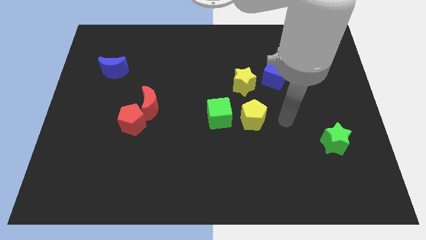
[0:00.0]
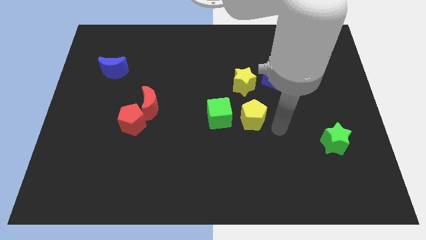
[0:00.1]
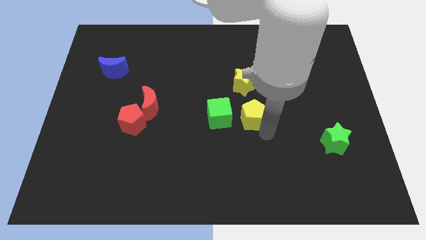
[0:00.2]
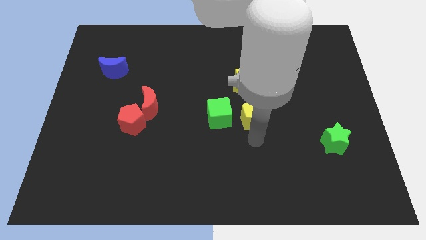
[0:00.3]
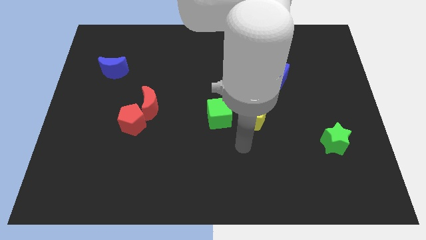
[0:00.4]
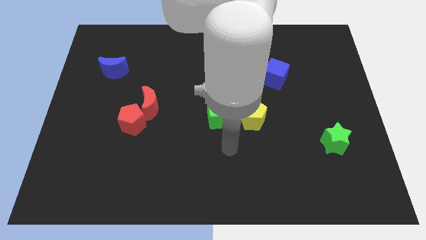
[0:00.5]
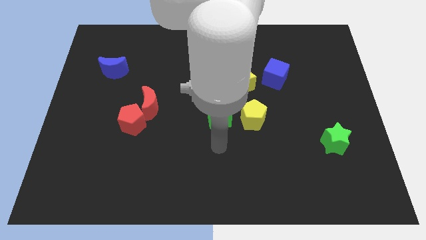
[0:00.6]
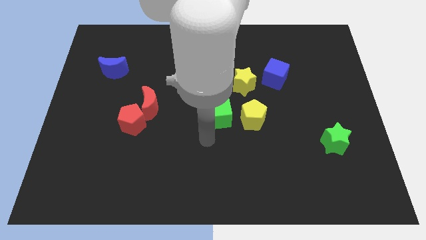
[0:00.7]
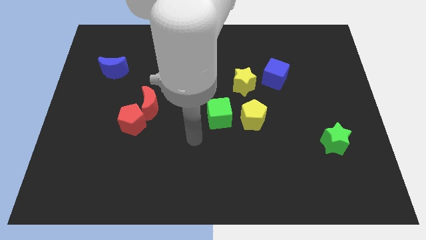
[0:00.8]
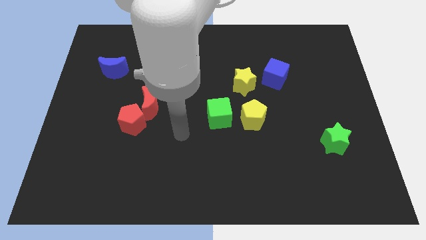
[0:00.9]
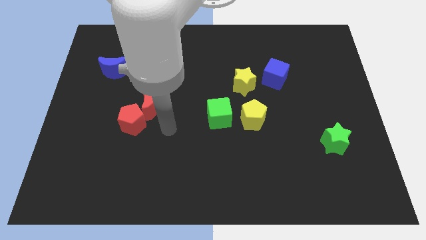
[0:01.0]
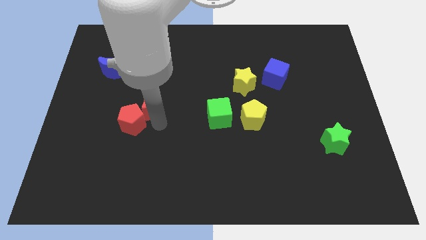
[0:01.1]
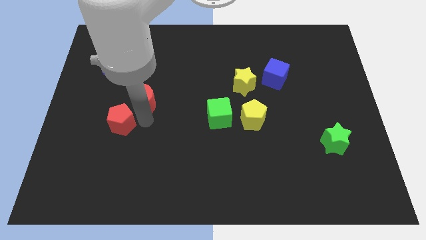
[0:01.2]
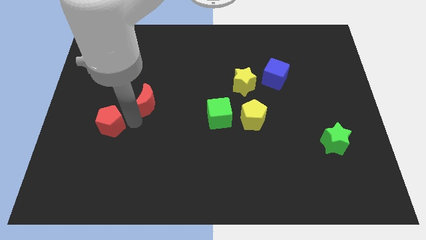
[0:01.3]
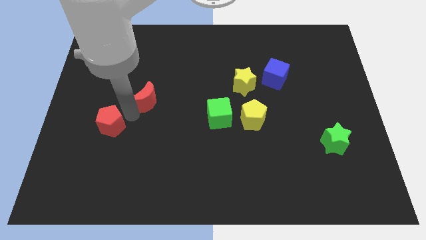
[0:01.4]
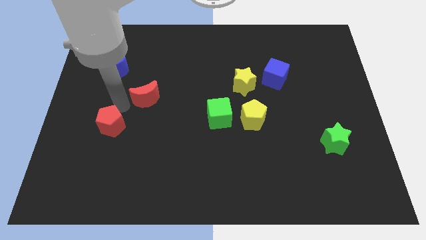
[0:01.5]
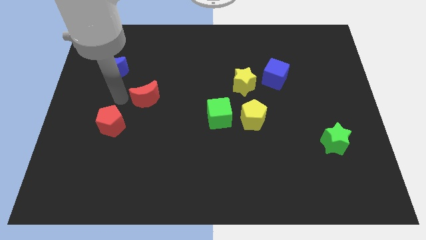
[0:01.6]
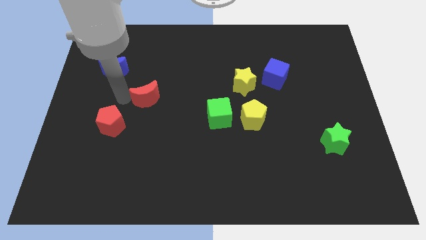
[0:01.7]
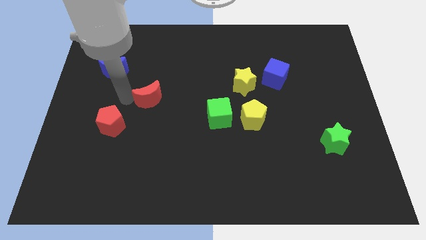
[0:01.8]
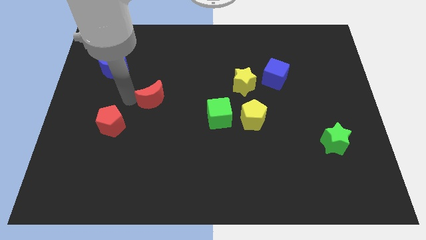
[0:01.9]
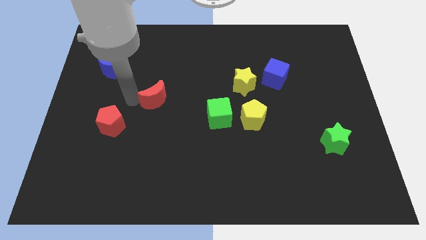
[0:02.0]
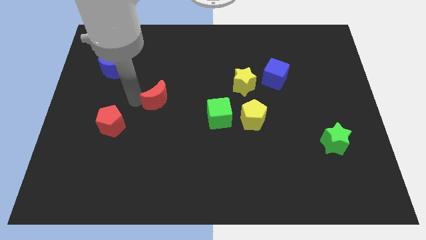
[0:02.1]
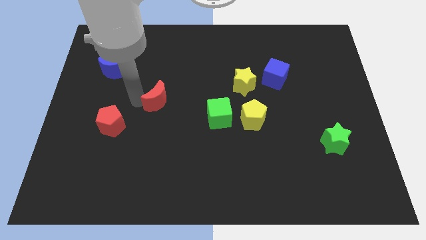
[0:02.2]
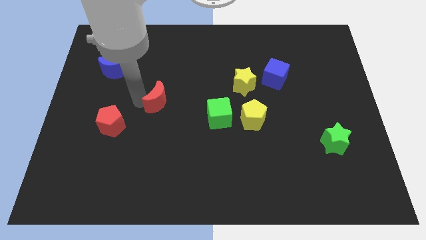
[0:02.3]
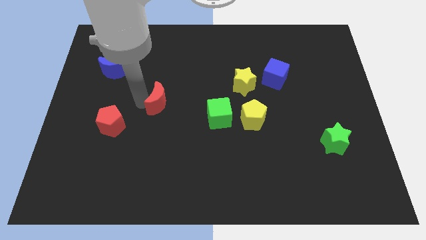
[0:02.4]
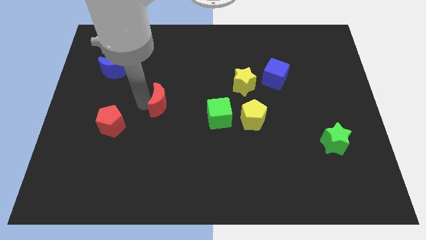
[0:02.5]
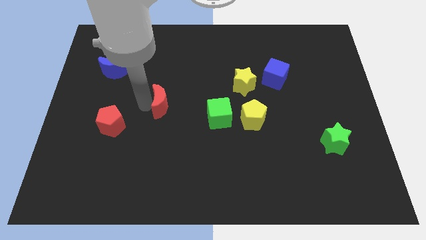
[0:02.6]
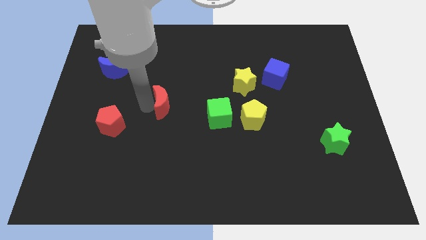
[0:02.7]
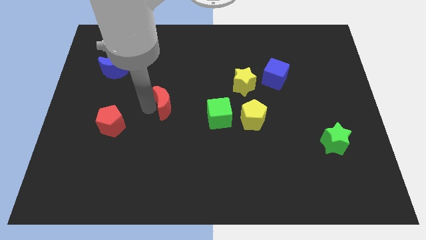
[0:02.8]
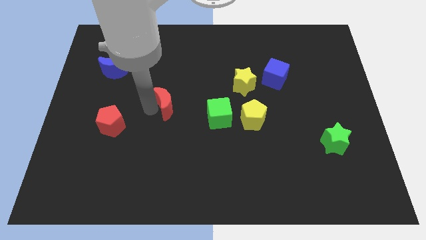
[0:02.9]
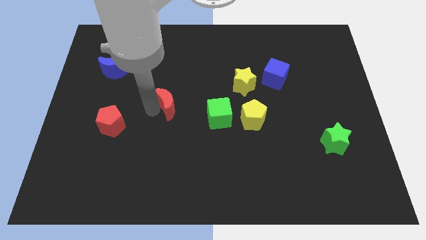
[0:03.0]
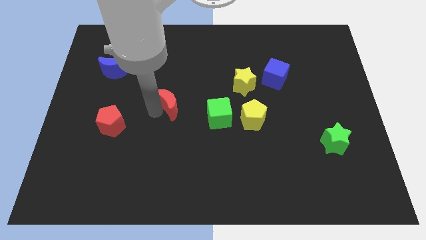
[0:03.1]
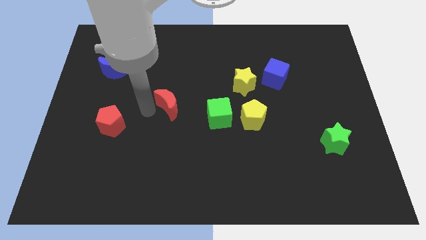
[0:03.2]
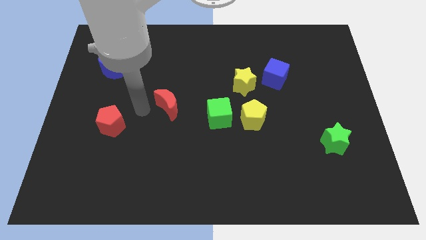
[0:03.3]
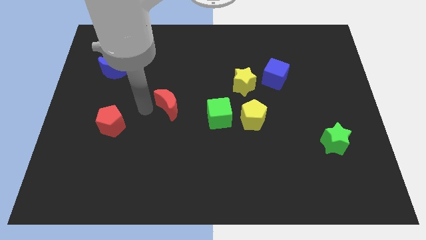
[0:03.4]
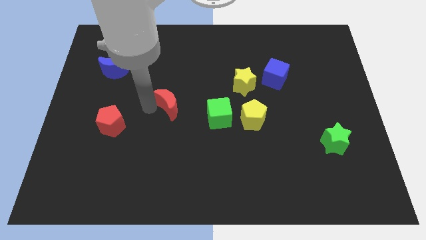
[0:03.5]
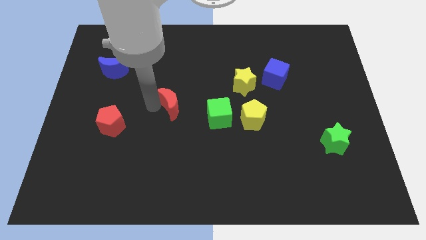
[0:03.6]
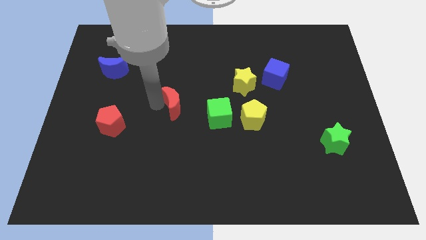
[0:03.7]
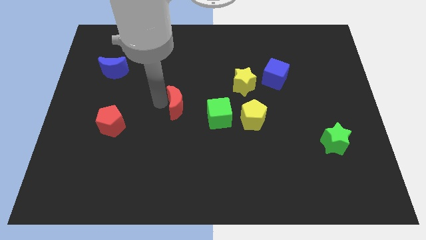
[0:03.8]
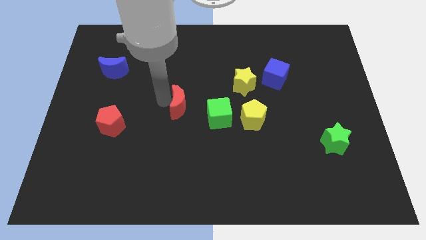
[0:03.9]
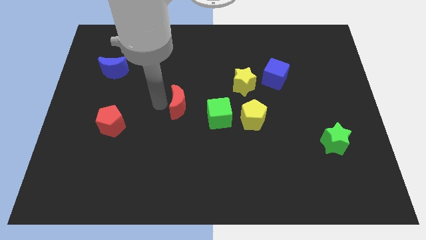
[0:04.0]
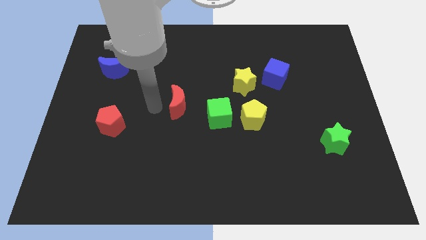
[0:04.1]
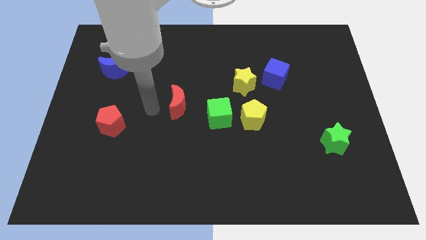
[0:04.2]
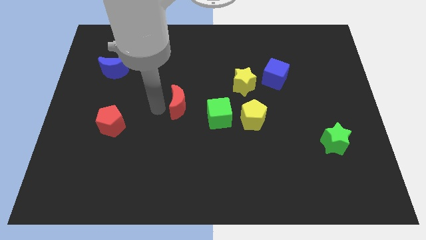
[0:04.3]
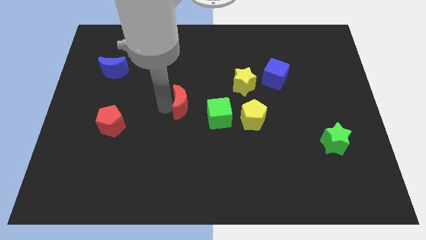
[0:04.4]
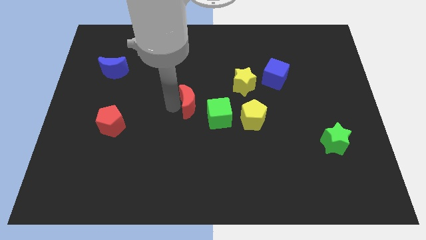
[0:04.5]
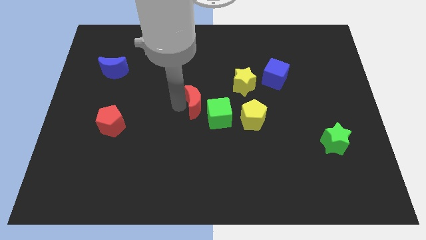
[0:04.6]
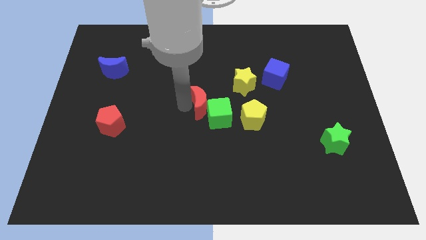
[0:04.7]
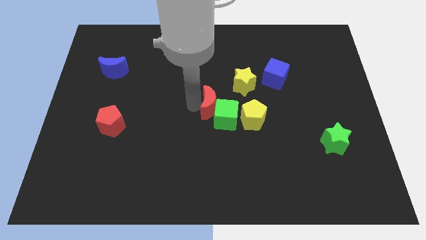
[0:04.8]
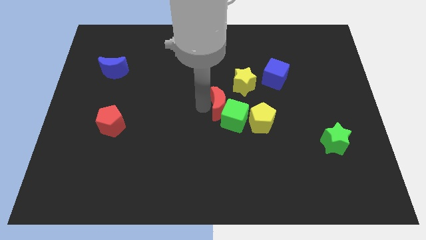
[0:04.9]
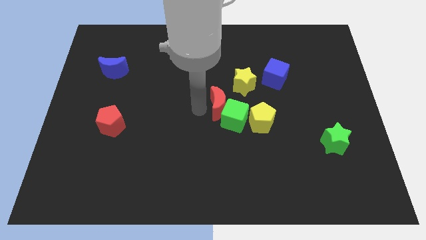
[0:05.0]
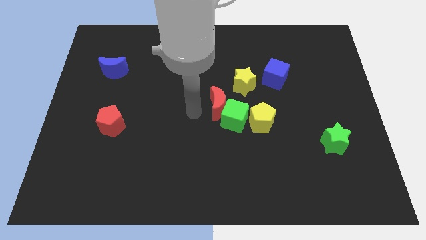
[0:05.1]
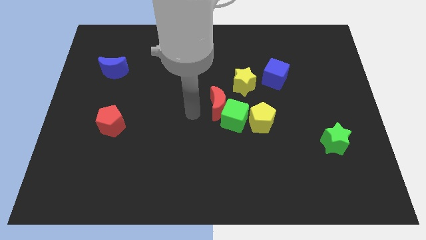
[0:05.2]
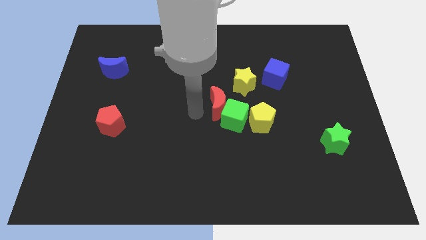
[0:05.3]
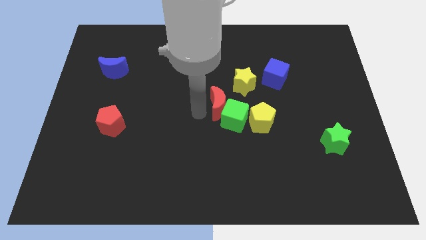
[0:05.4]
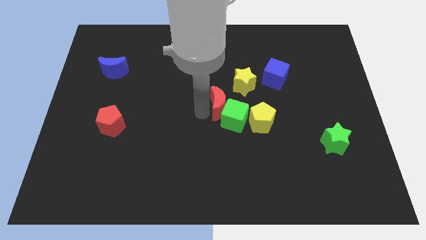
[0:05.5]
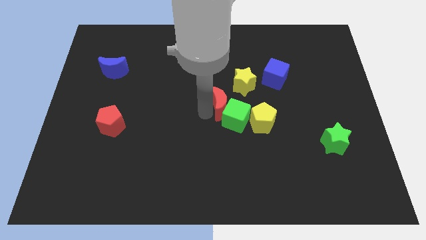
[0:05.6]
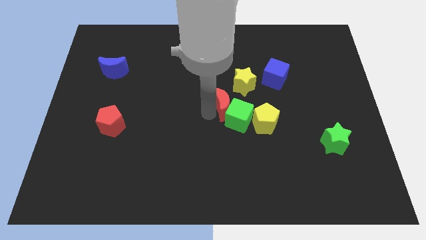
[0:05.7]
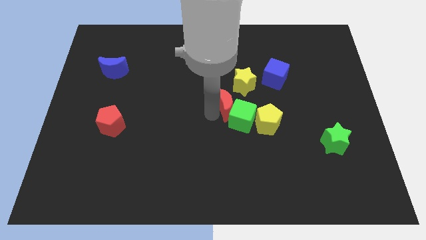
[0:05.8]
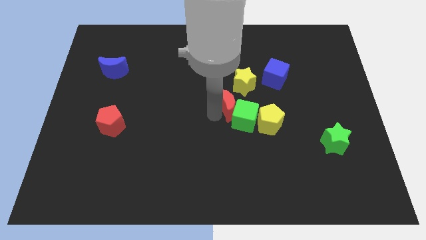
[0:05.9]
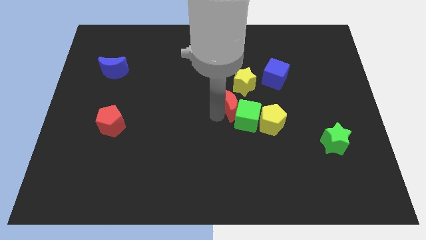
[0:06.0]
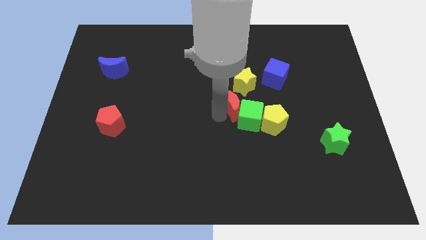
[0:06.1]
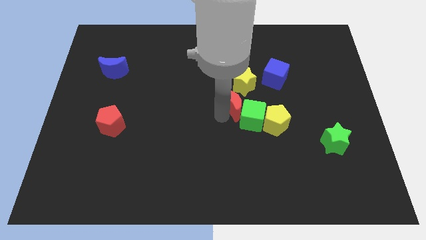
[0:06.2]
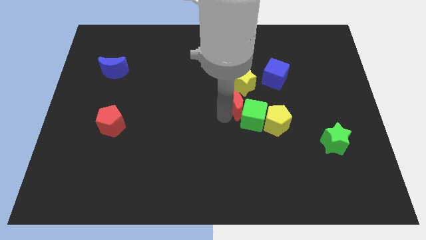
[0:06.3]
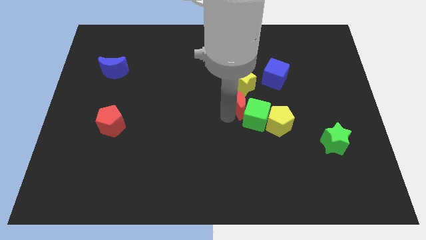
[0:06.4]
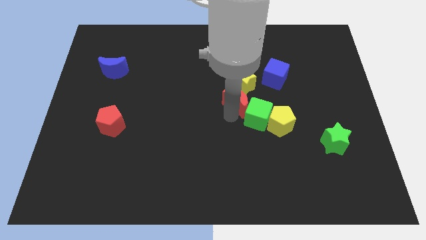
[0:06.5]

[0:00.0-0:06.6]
push the red moon to the bottom left of the blue cube

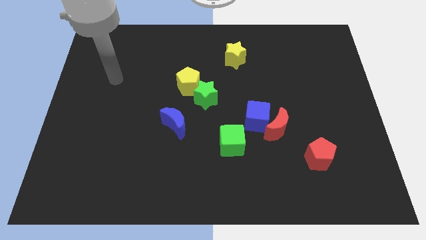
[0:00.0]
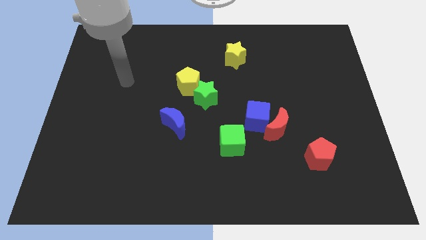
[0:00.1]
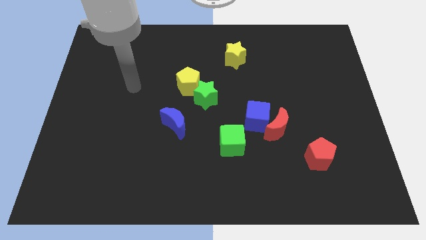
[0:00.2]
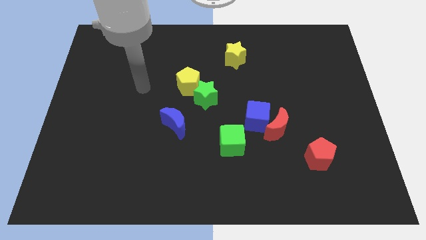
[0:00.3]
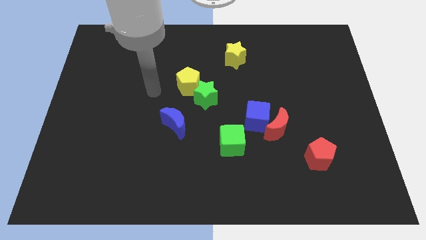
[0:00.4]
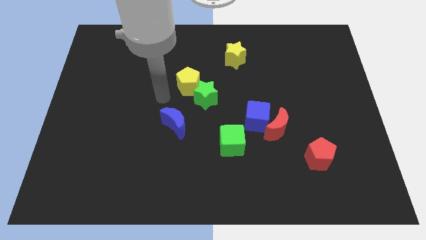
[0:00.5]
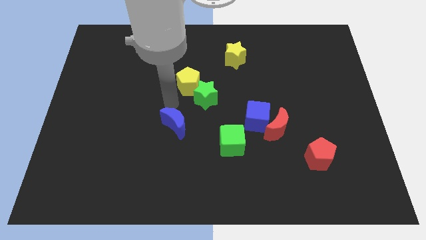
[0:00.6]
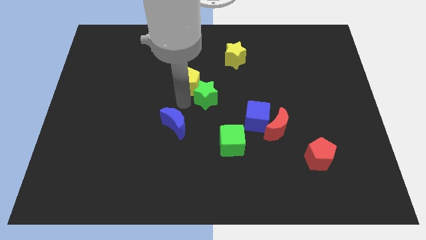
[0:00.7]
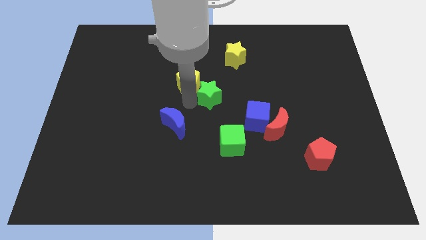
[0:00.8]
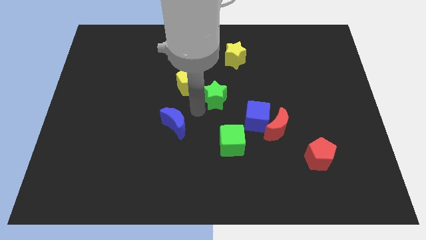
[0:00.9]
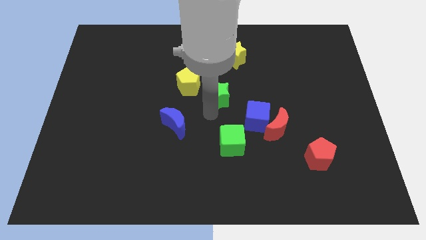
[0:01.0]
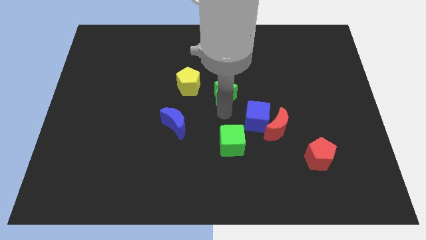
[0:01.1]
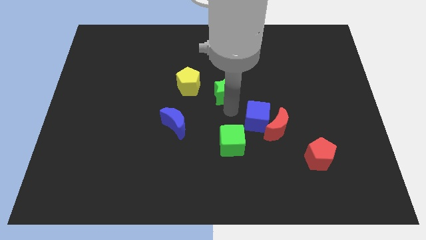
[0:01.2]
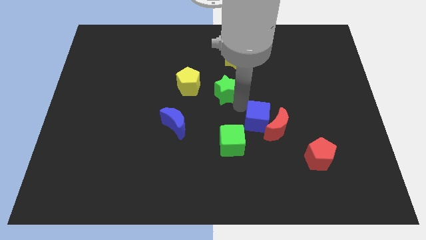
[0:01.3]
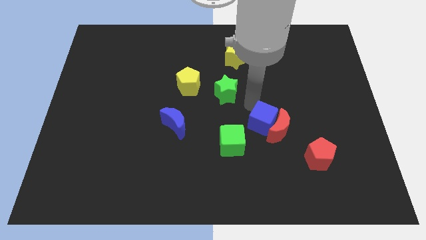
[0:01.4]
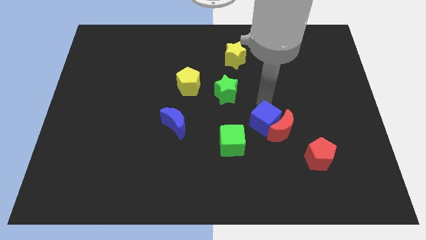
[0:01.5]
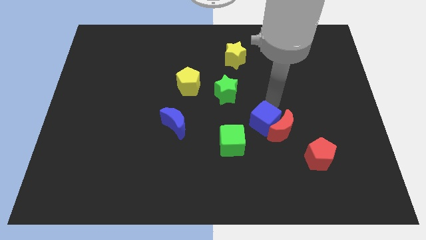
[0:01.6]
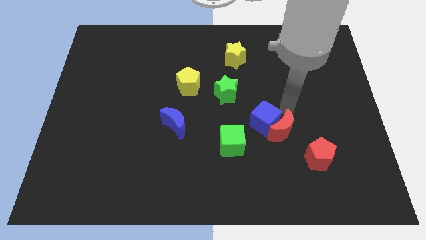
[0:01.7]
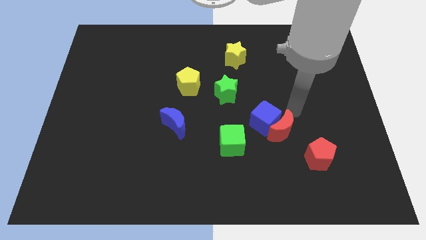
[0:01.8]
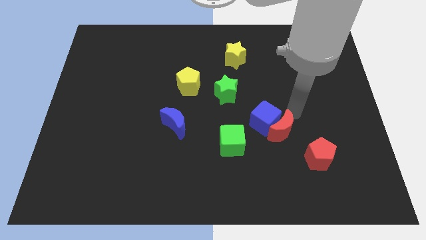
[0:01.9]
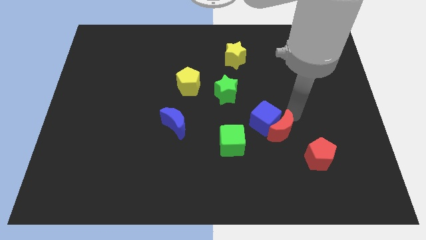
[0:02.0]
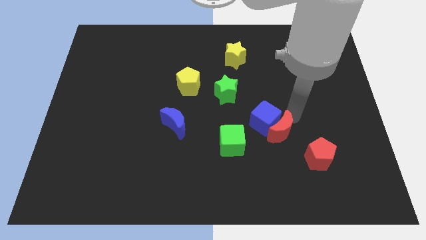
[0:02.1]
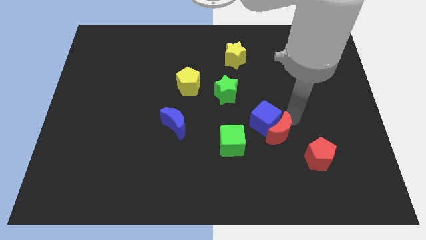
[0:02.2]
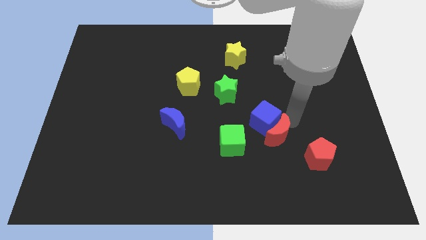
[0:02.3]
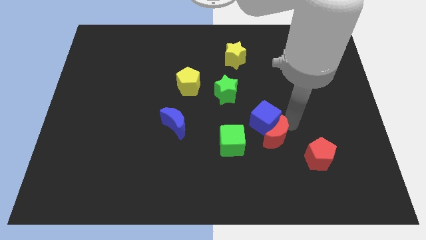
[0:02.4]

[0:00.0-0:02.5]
slide the red moon left of the red pentagon
